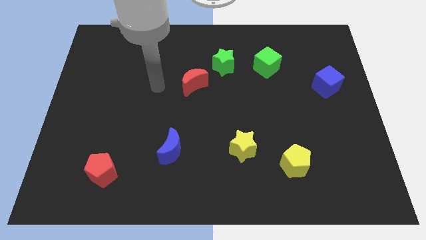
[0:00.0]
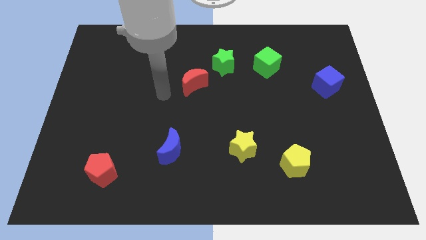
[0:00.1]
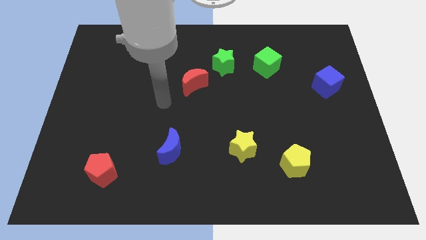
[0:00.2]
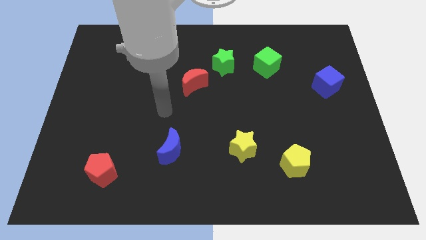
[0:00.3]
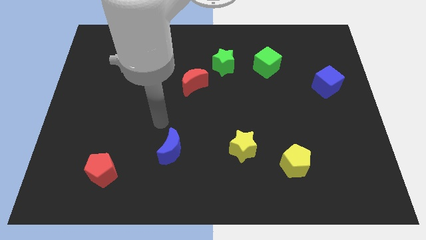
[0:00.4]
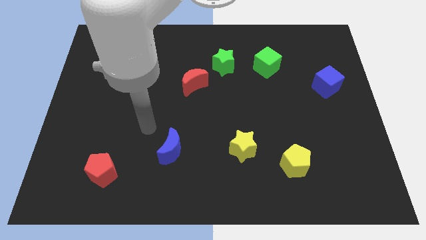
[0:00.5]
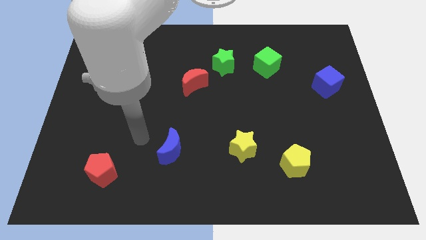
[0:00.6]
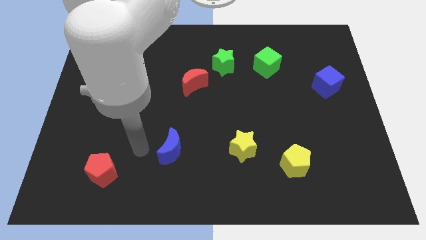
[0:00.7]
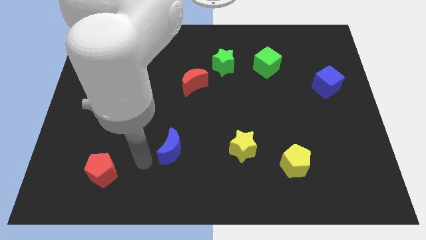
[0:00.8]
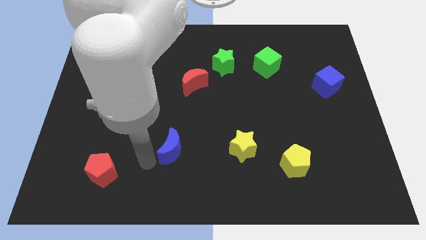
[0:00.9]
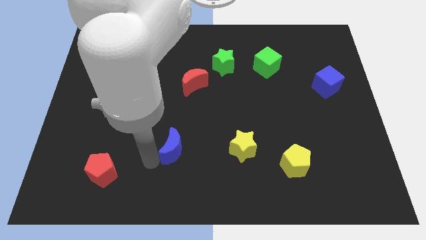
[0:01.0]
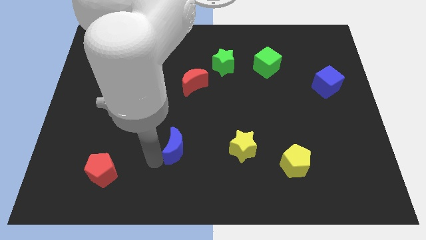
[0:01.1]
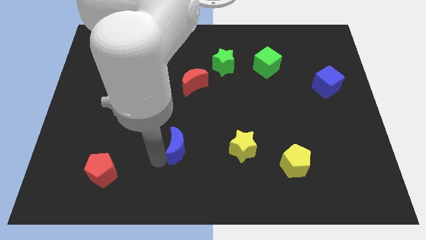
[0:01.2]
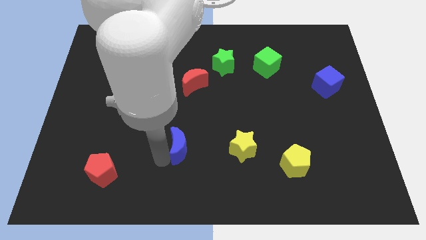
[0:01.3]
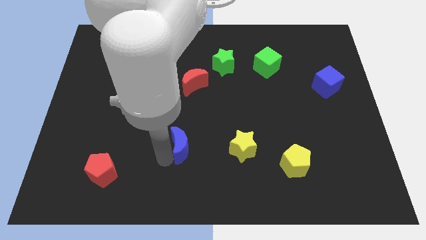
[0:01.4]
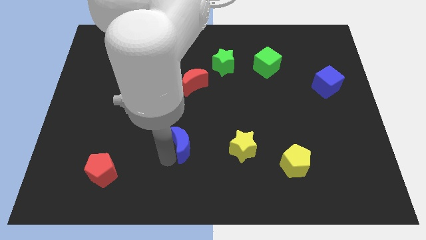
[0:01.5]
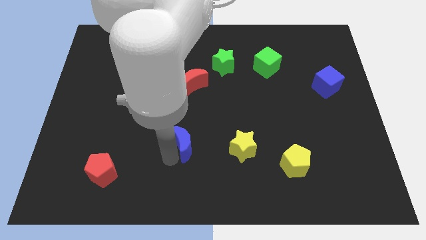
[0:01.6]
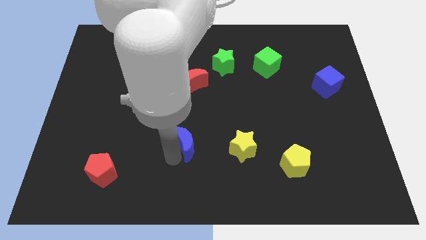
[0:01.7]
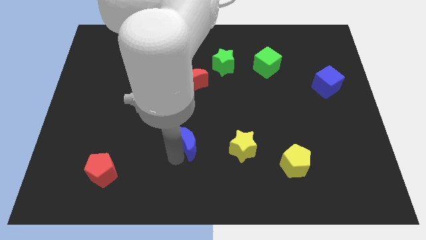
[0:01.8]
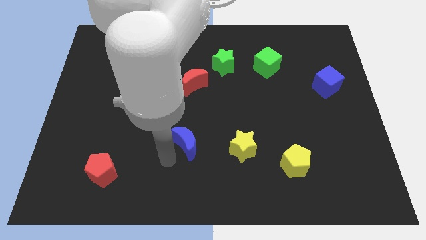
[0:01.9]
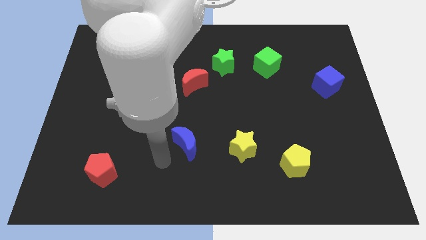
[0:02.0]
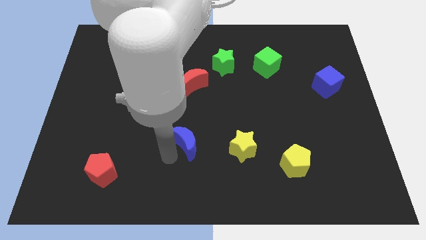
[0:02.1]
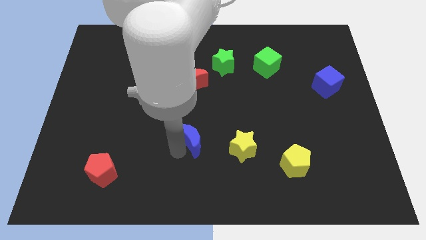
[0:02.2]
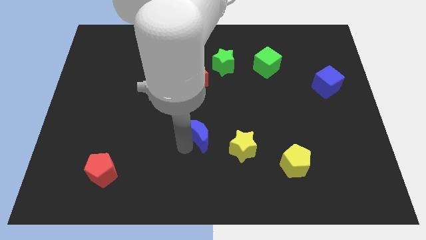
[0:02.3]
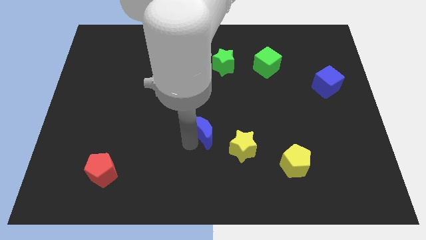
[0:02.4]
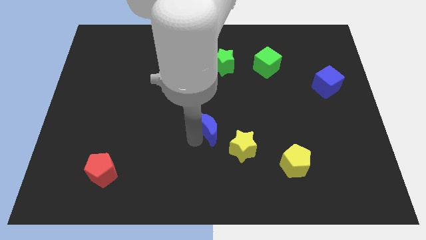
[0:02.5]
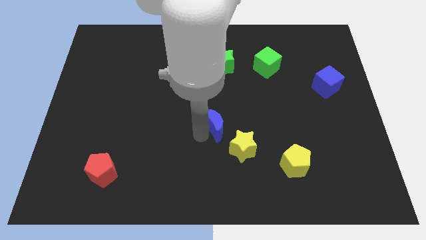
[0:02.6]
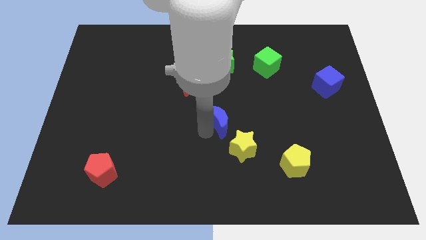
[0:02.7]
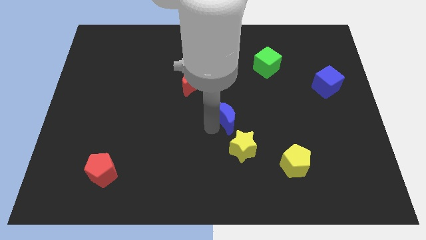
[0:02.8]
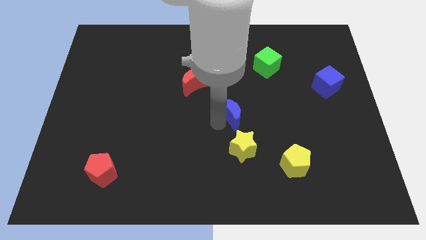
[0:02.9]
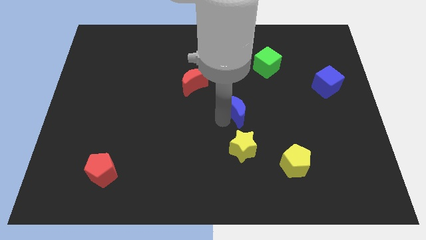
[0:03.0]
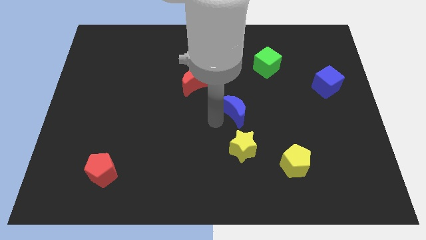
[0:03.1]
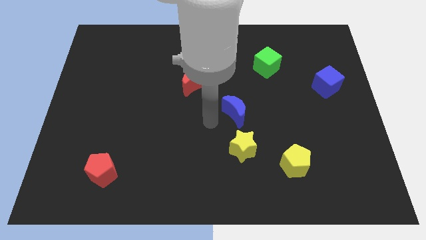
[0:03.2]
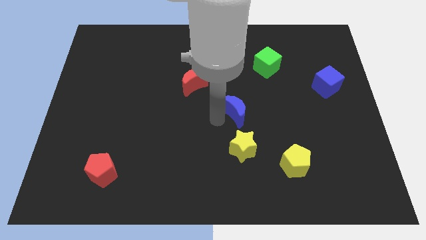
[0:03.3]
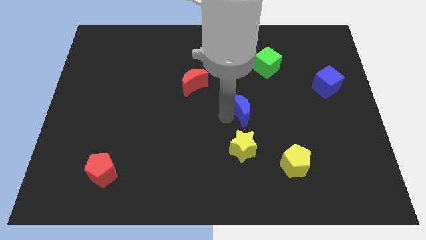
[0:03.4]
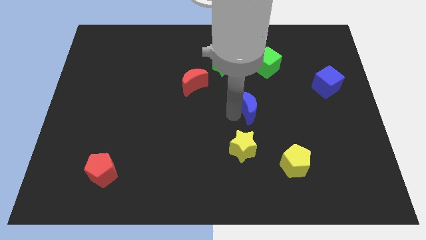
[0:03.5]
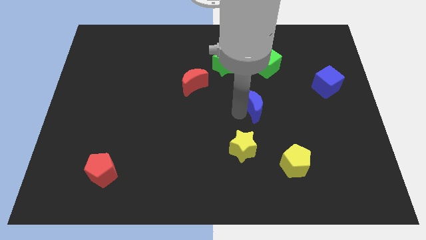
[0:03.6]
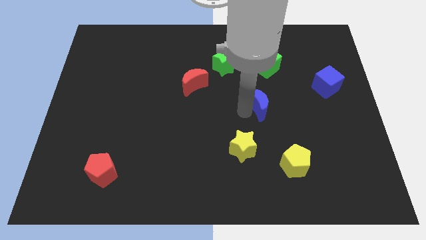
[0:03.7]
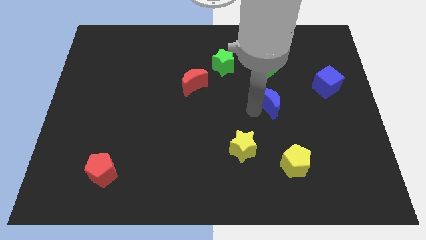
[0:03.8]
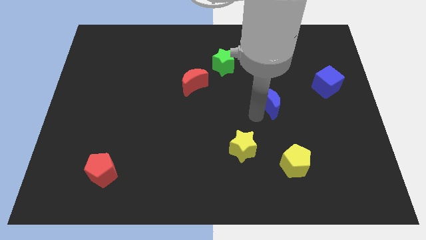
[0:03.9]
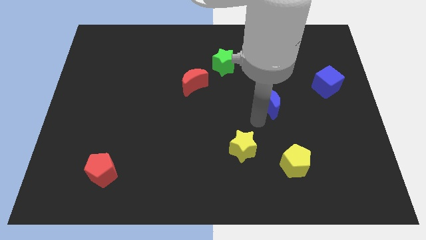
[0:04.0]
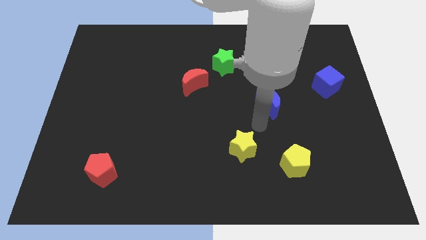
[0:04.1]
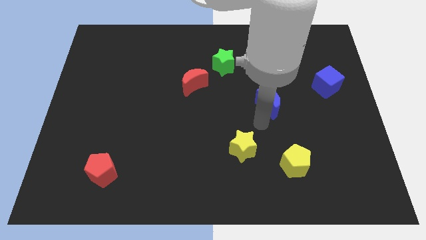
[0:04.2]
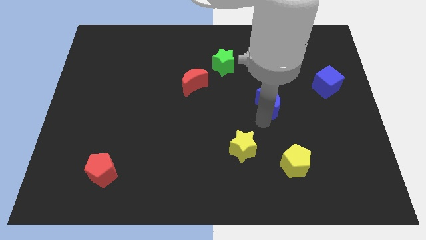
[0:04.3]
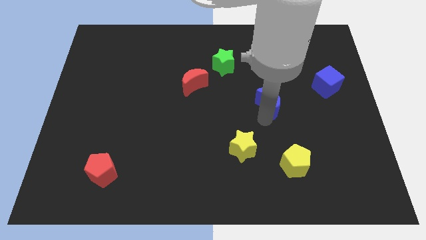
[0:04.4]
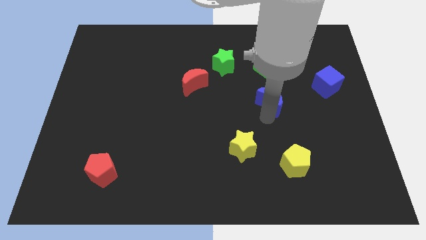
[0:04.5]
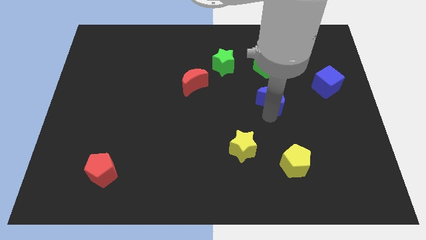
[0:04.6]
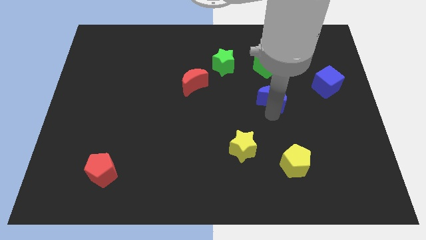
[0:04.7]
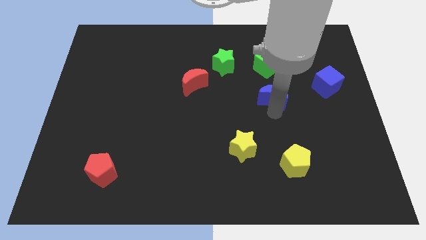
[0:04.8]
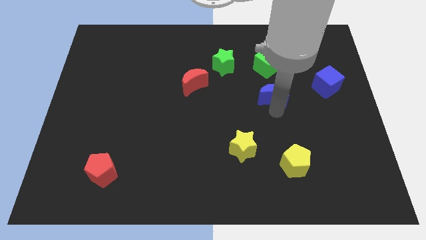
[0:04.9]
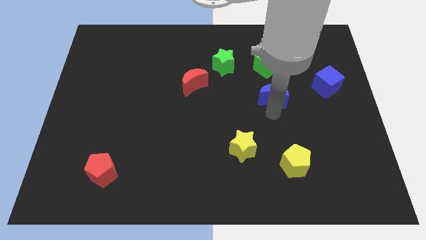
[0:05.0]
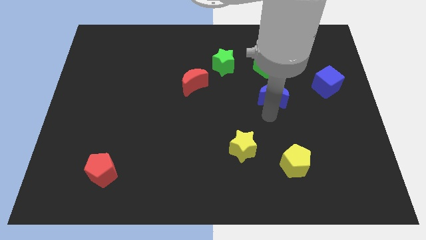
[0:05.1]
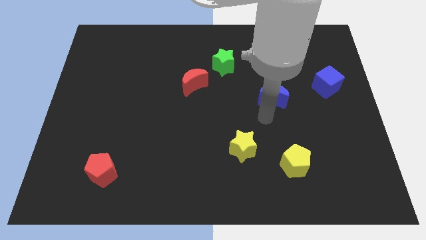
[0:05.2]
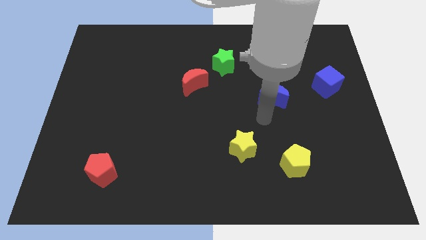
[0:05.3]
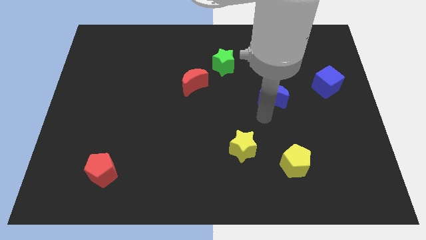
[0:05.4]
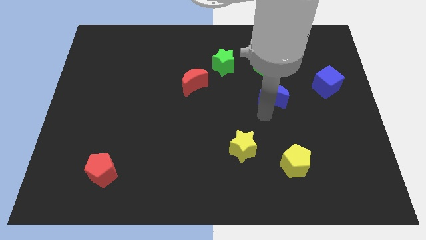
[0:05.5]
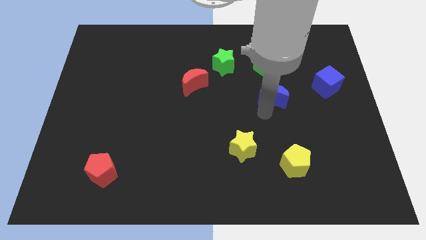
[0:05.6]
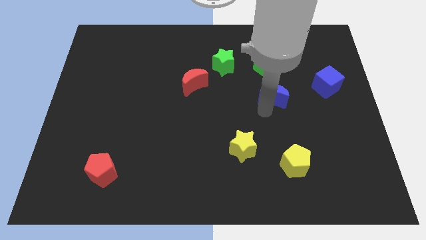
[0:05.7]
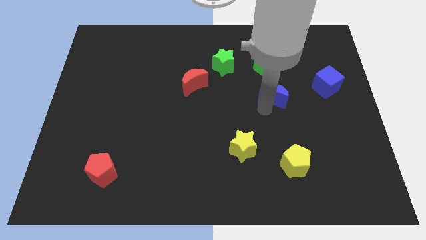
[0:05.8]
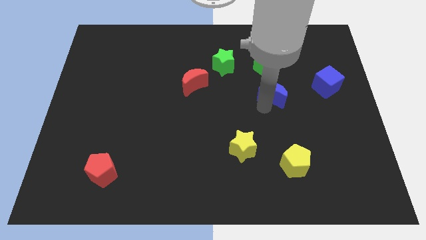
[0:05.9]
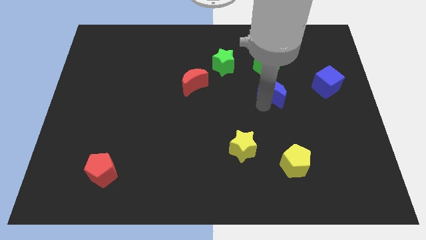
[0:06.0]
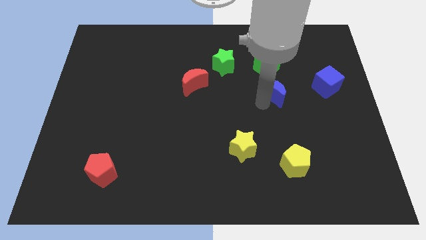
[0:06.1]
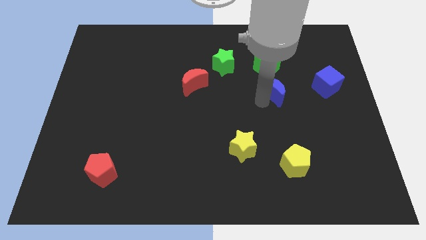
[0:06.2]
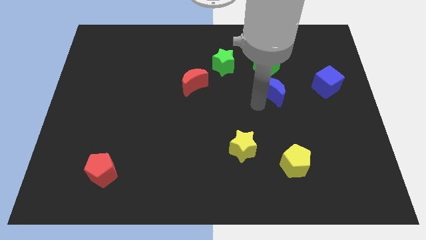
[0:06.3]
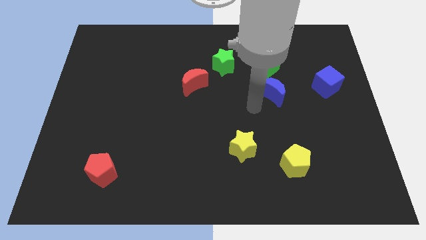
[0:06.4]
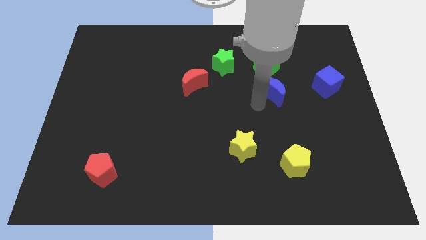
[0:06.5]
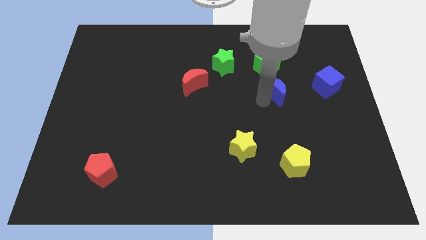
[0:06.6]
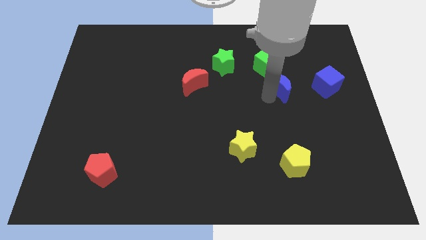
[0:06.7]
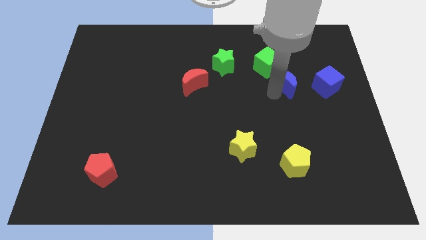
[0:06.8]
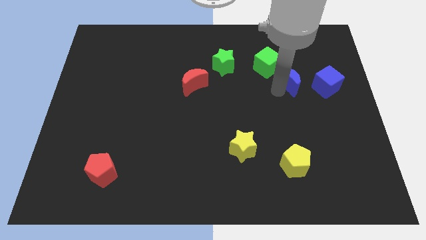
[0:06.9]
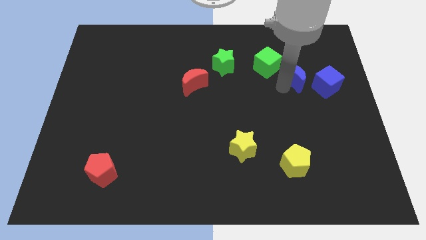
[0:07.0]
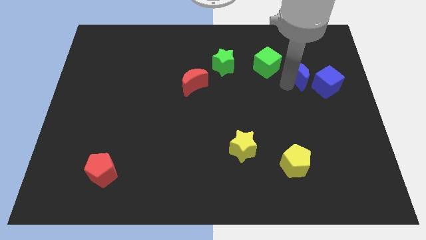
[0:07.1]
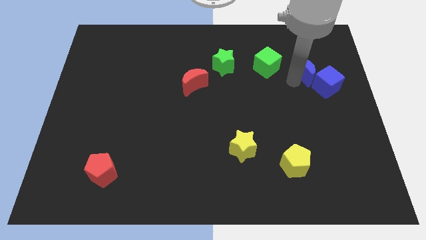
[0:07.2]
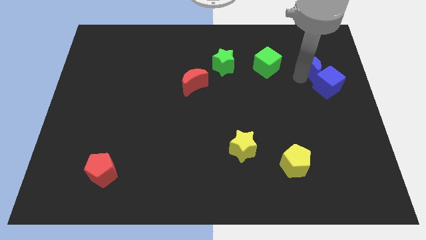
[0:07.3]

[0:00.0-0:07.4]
move the blue moon to the top side of the blue cube
